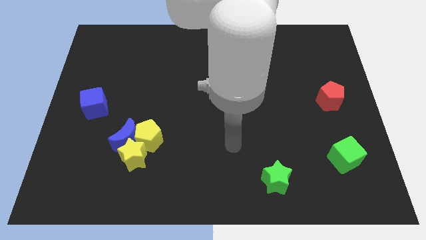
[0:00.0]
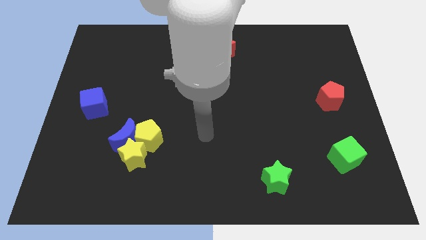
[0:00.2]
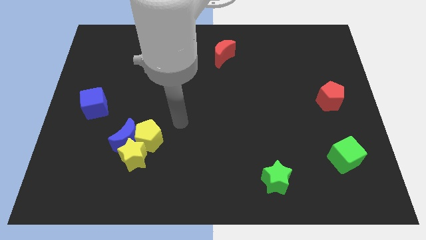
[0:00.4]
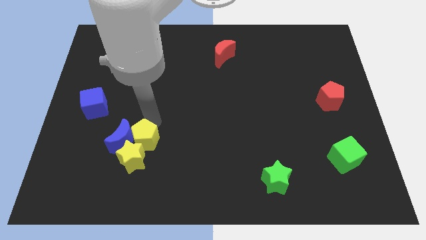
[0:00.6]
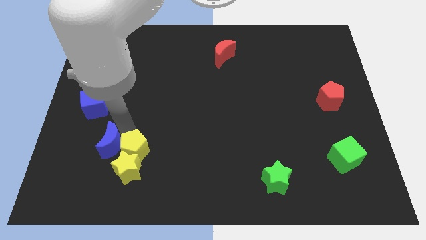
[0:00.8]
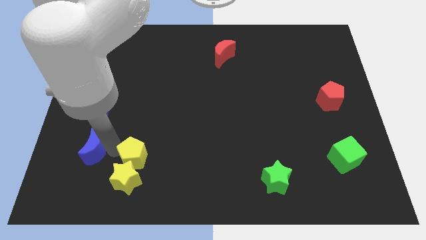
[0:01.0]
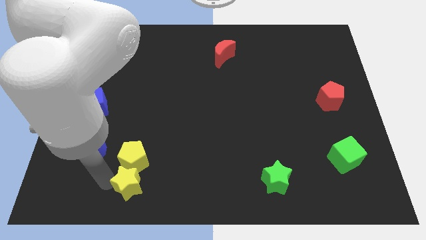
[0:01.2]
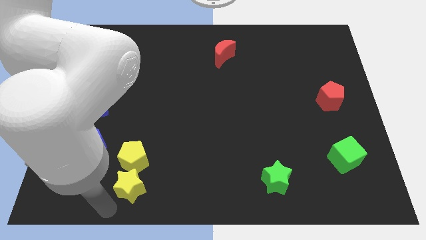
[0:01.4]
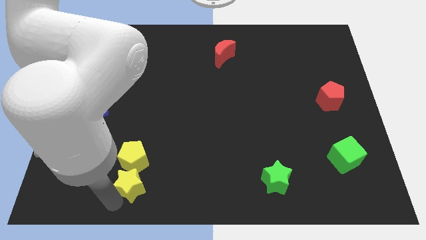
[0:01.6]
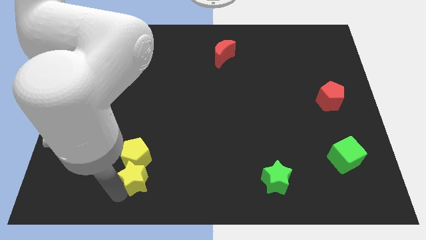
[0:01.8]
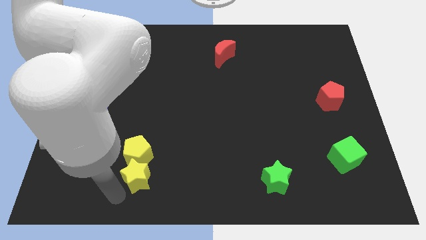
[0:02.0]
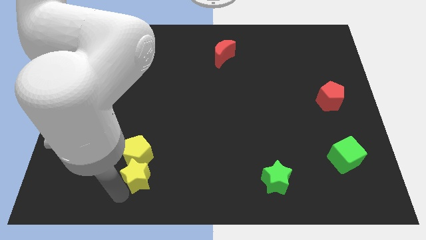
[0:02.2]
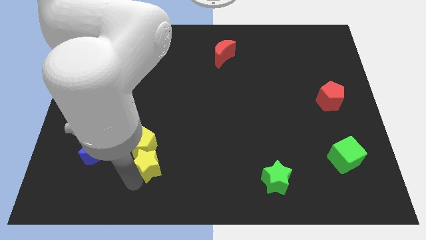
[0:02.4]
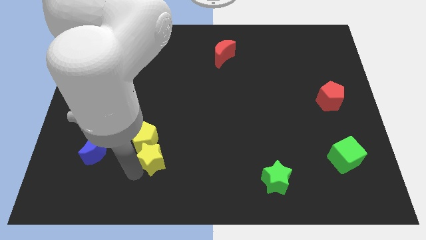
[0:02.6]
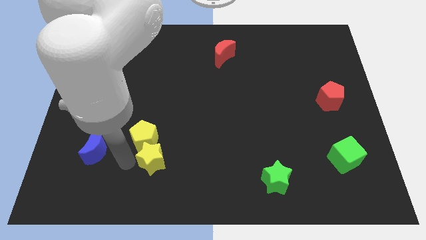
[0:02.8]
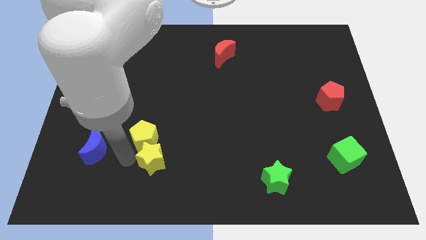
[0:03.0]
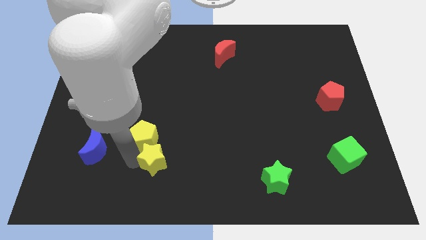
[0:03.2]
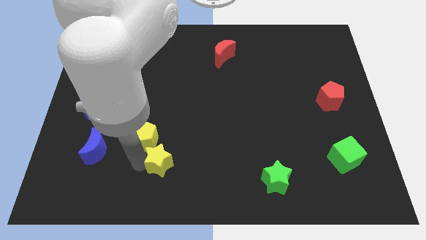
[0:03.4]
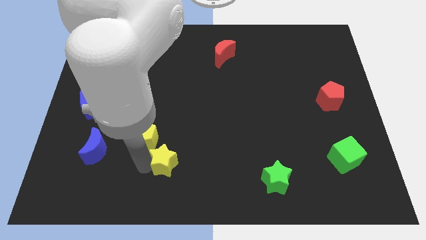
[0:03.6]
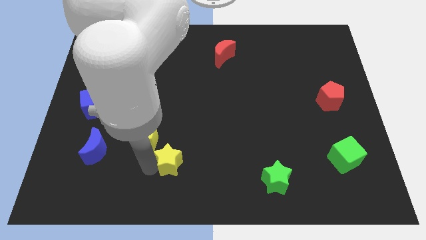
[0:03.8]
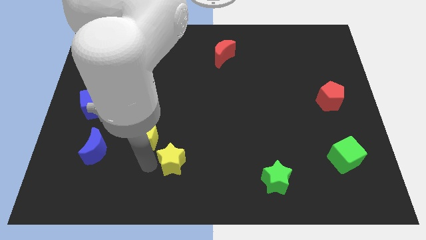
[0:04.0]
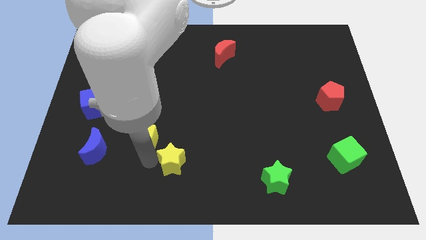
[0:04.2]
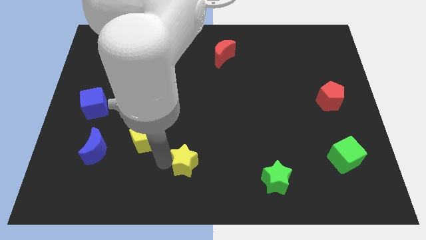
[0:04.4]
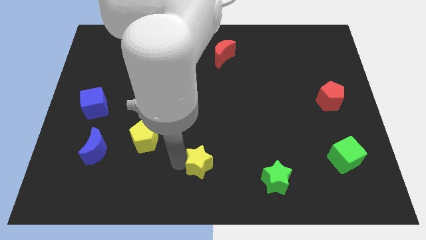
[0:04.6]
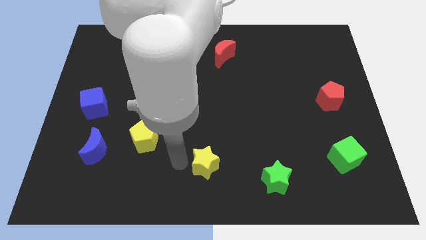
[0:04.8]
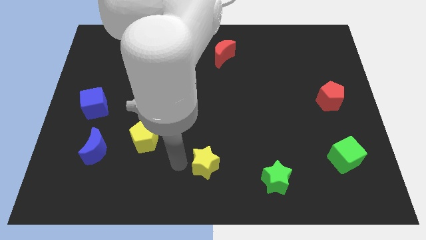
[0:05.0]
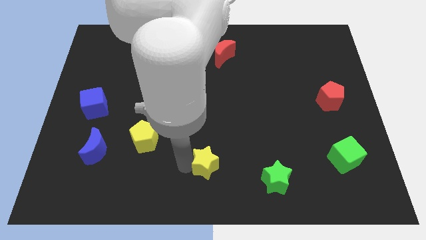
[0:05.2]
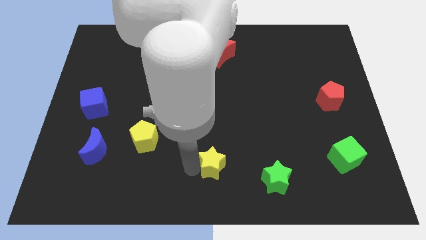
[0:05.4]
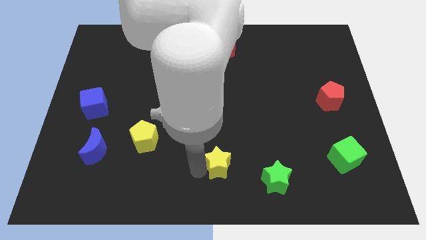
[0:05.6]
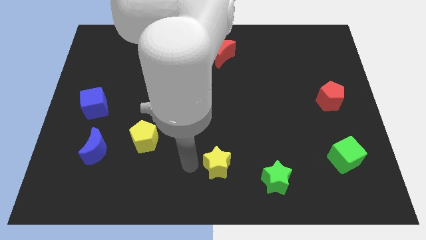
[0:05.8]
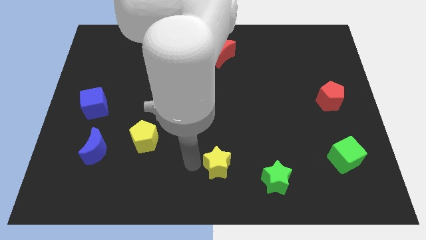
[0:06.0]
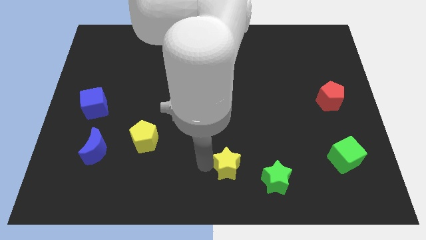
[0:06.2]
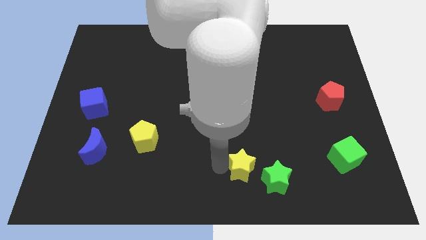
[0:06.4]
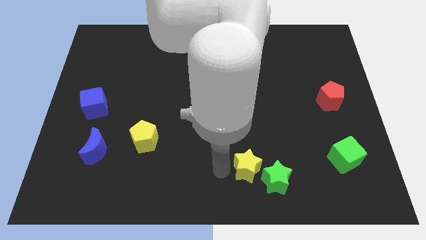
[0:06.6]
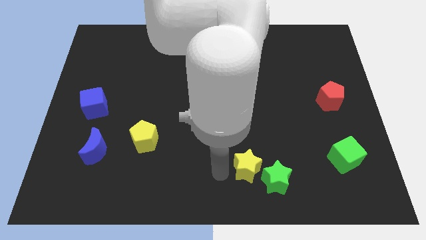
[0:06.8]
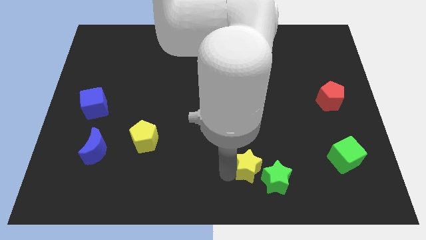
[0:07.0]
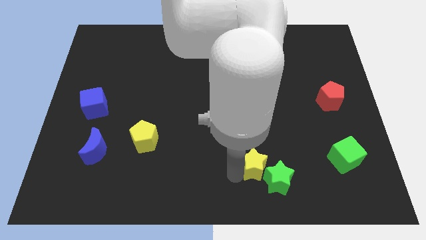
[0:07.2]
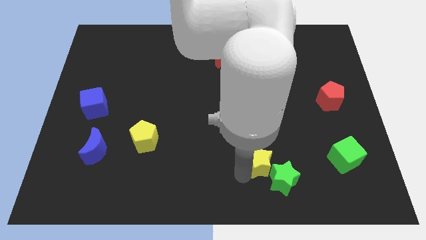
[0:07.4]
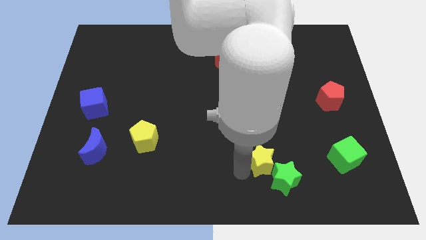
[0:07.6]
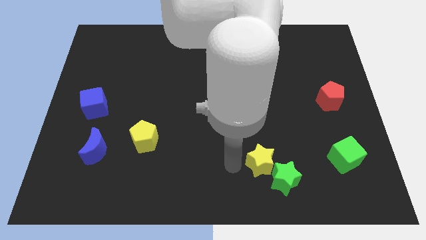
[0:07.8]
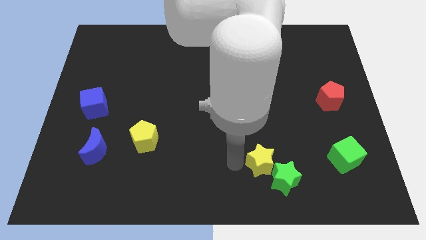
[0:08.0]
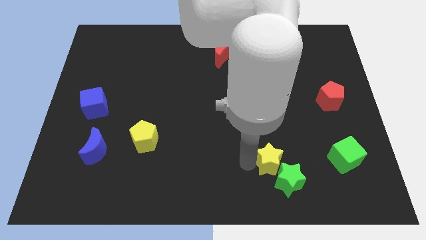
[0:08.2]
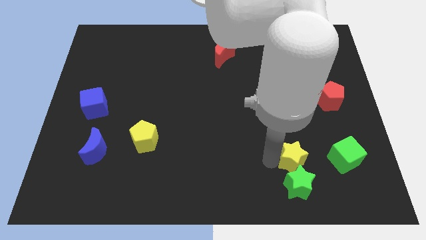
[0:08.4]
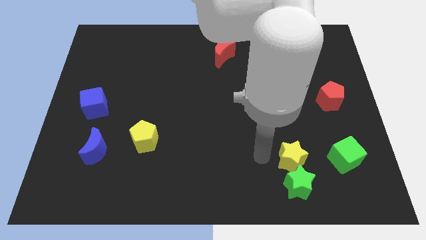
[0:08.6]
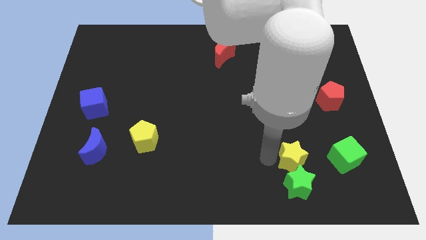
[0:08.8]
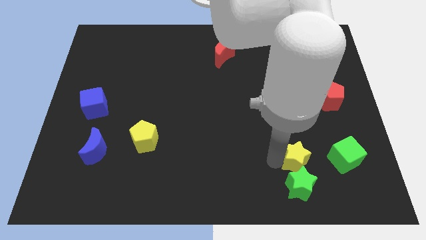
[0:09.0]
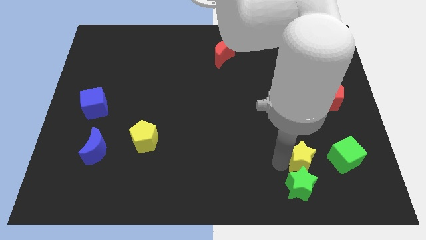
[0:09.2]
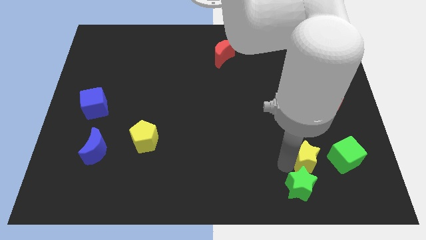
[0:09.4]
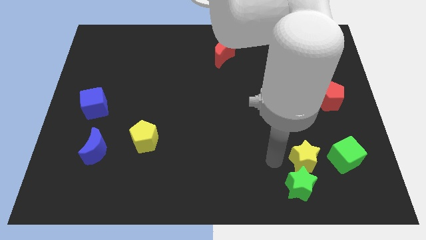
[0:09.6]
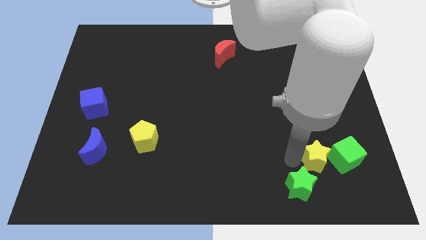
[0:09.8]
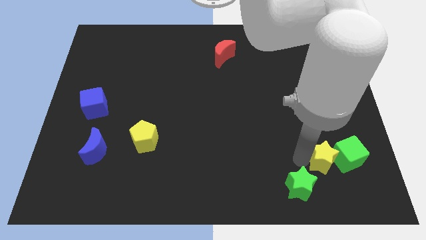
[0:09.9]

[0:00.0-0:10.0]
move the yellow star next to the green cube

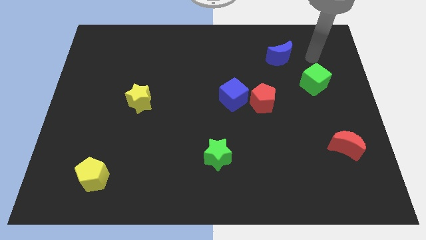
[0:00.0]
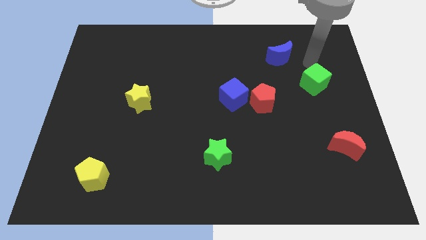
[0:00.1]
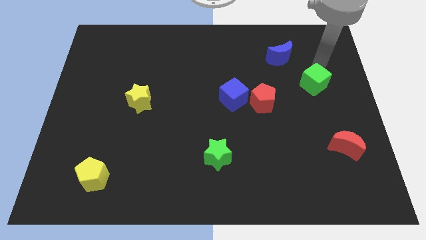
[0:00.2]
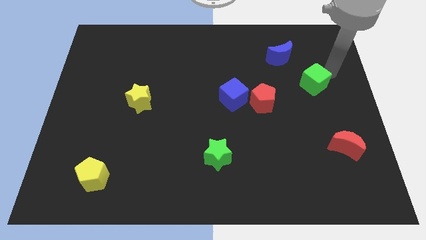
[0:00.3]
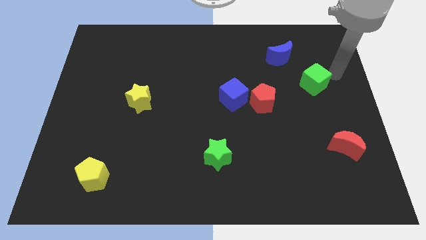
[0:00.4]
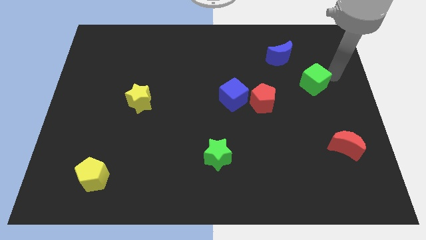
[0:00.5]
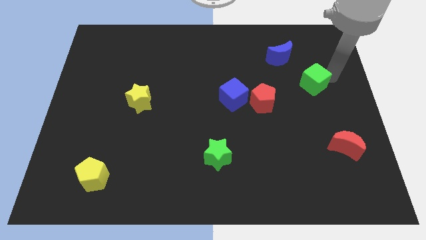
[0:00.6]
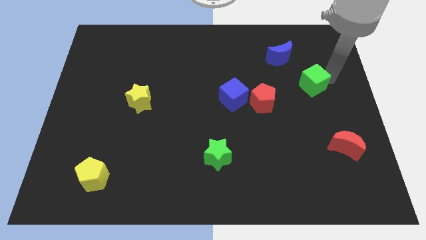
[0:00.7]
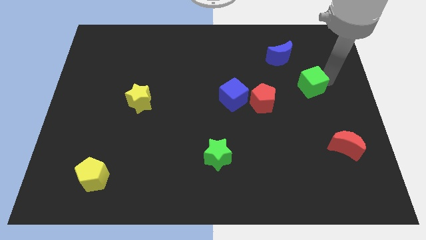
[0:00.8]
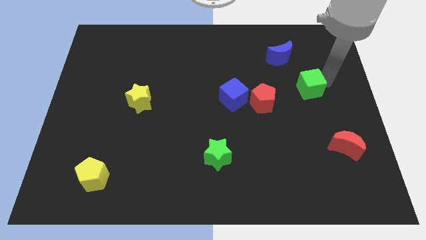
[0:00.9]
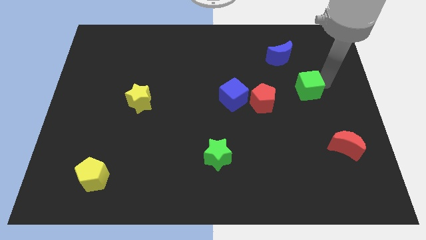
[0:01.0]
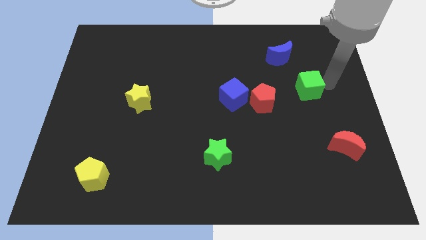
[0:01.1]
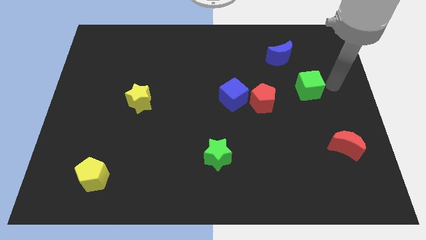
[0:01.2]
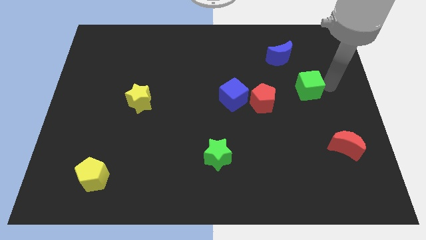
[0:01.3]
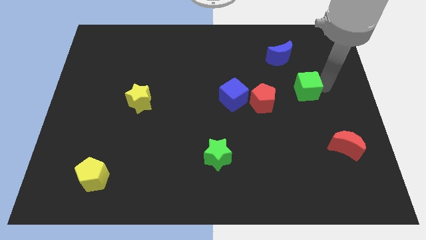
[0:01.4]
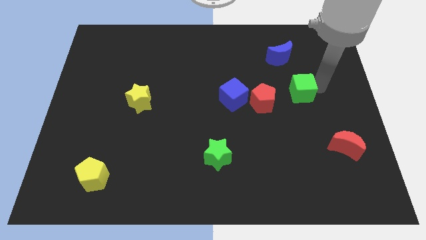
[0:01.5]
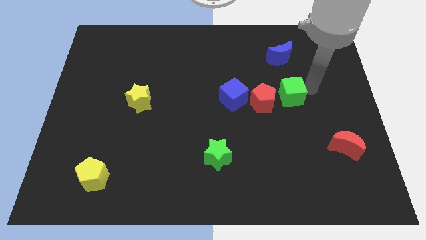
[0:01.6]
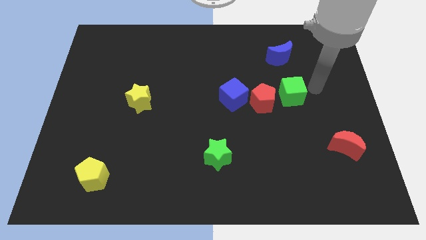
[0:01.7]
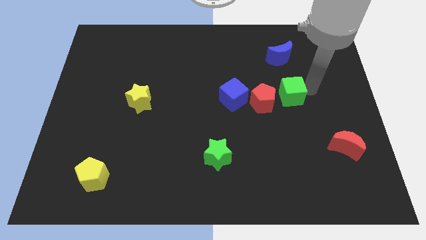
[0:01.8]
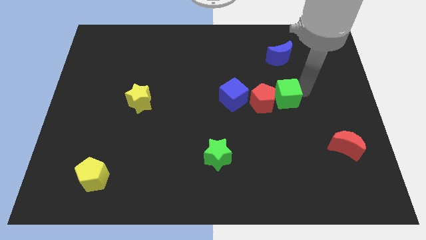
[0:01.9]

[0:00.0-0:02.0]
move the green cube next to the red pentagon

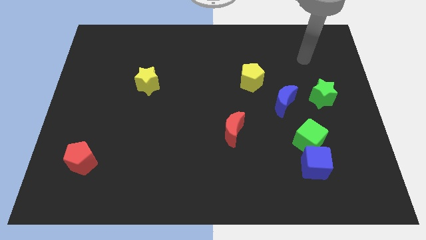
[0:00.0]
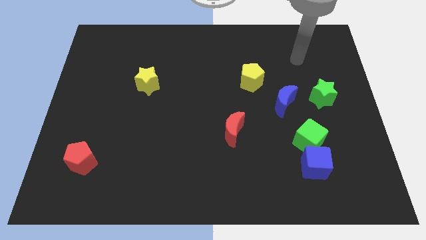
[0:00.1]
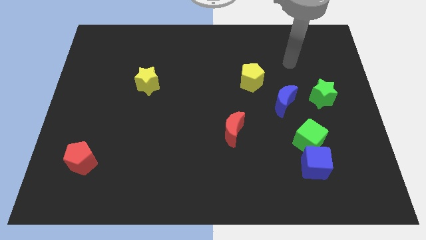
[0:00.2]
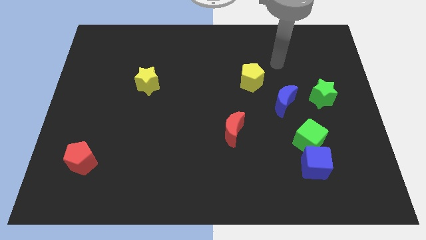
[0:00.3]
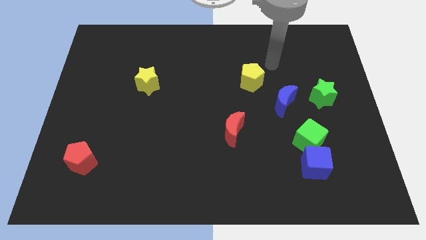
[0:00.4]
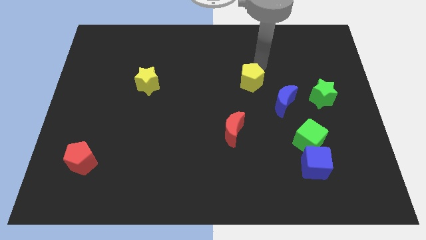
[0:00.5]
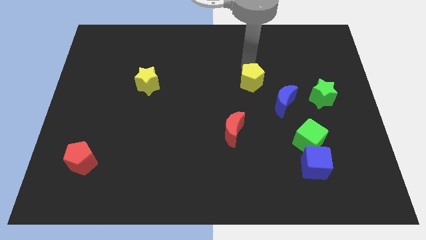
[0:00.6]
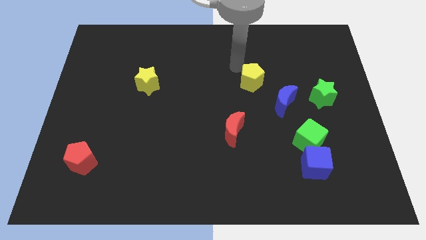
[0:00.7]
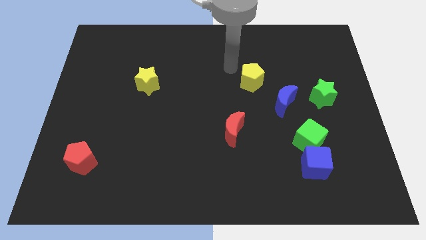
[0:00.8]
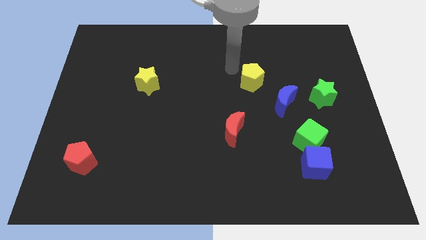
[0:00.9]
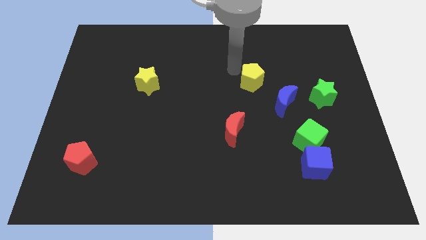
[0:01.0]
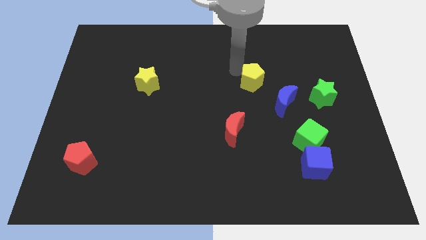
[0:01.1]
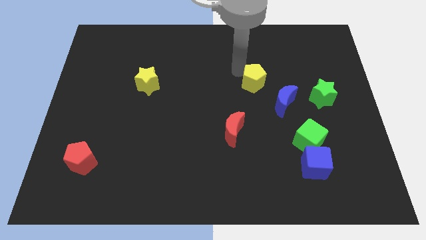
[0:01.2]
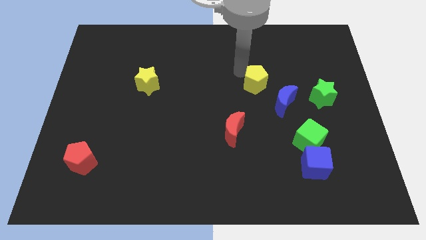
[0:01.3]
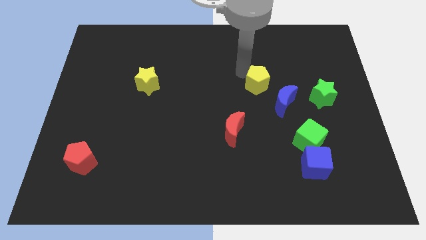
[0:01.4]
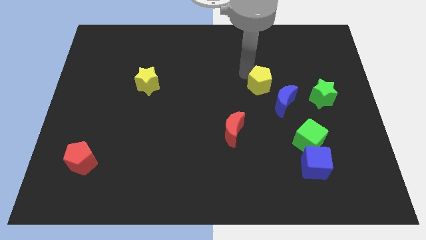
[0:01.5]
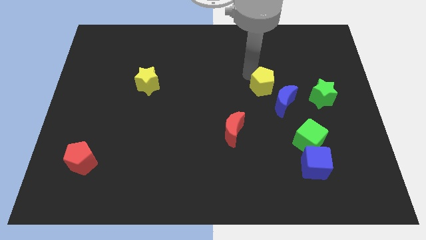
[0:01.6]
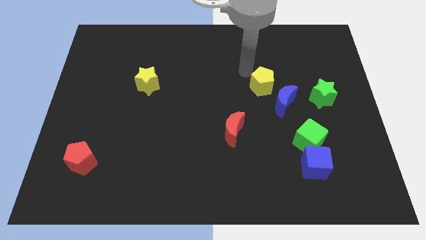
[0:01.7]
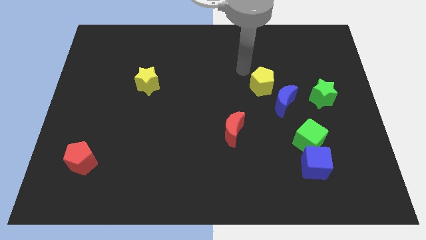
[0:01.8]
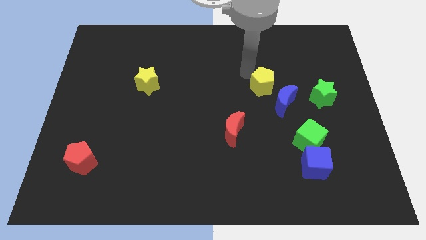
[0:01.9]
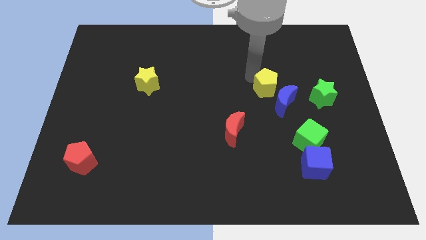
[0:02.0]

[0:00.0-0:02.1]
push the yellow pentagon towards the blue moon
